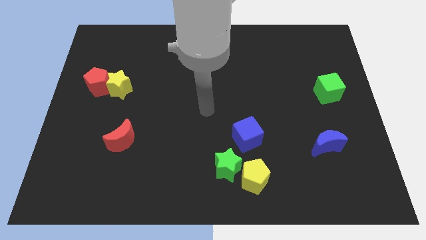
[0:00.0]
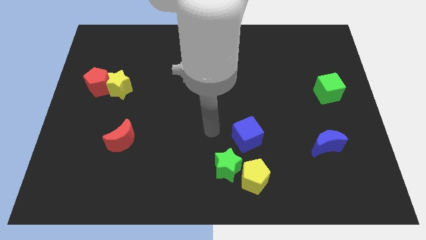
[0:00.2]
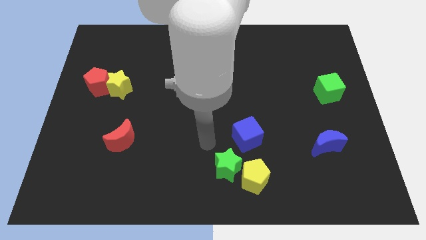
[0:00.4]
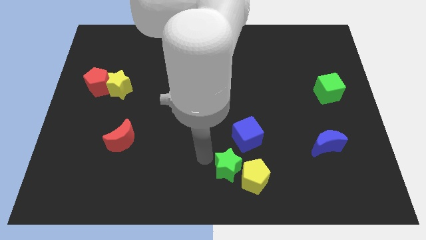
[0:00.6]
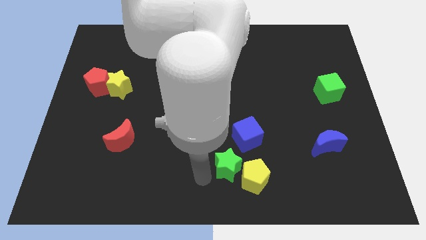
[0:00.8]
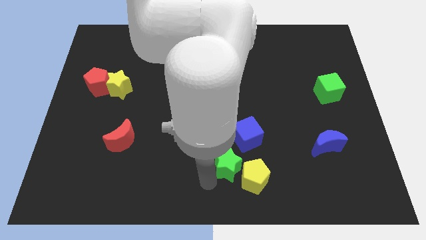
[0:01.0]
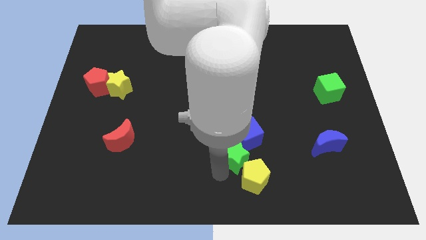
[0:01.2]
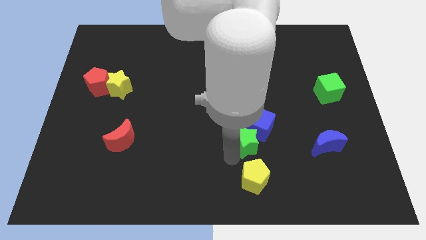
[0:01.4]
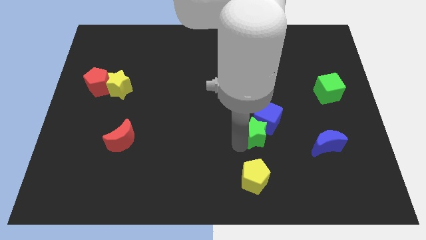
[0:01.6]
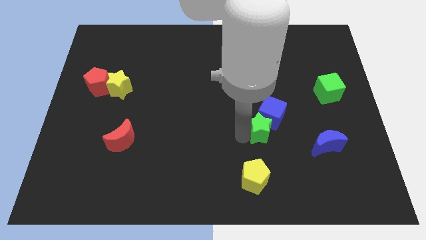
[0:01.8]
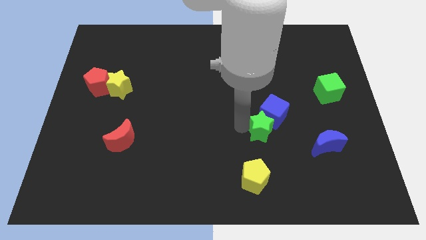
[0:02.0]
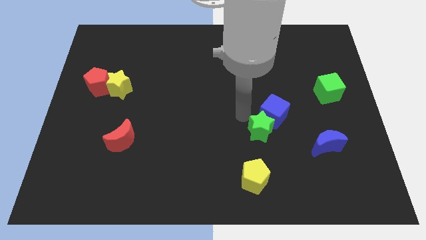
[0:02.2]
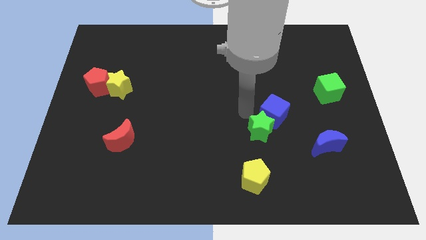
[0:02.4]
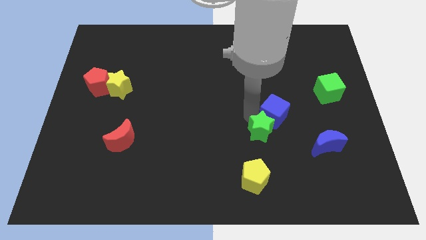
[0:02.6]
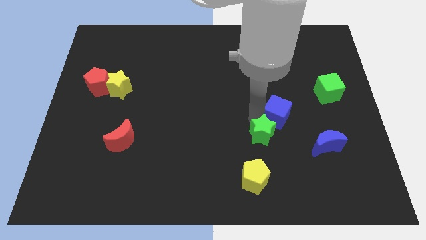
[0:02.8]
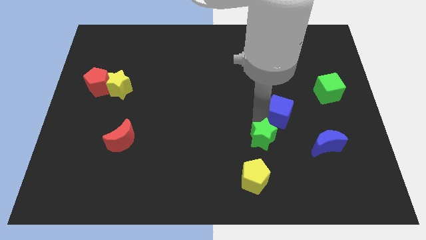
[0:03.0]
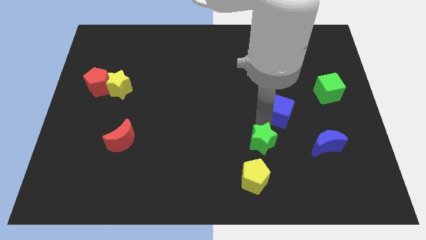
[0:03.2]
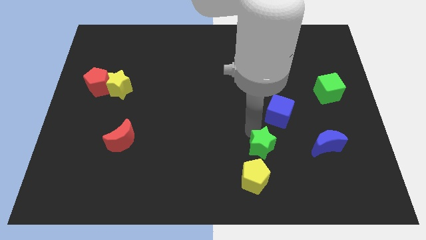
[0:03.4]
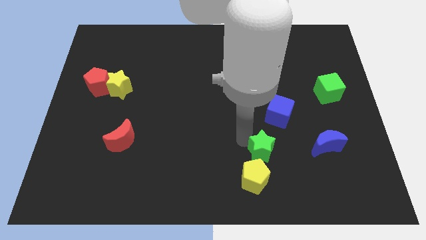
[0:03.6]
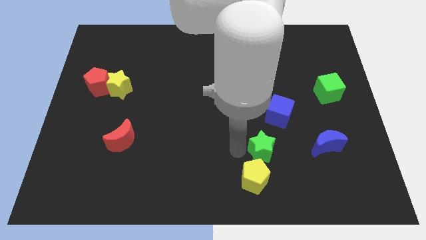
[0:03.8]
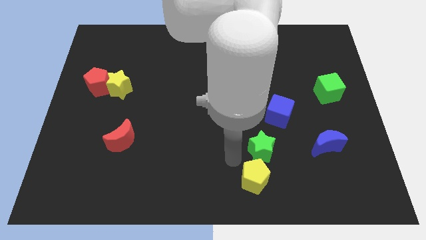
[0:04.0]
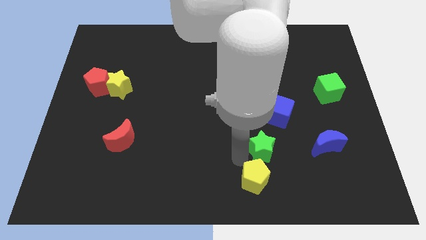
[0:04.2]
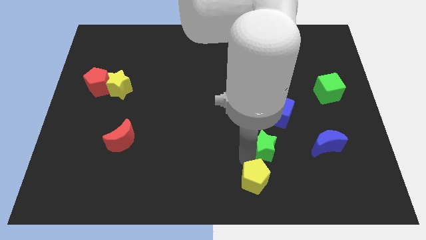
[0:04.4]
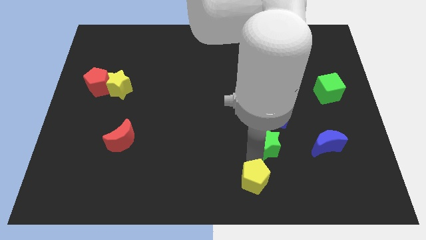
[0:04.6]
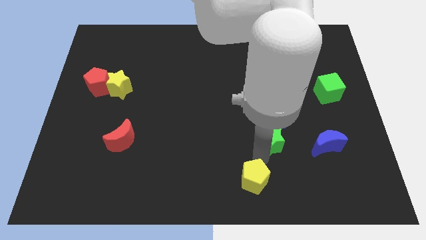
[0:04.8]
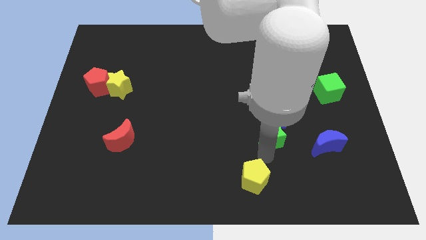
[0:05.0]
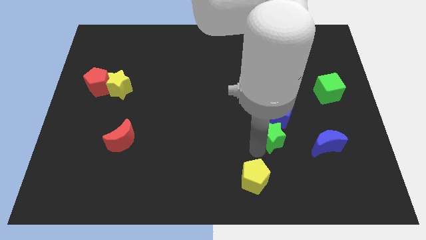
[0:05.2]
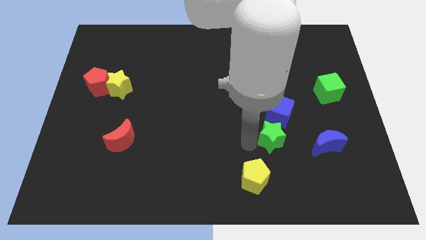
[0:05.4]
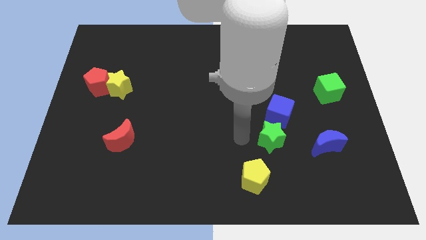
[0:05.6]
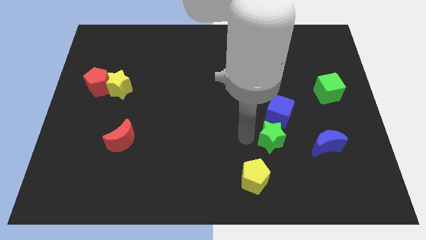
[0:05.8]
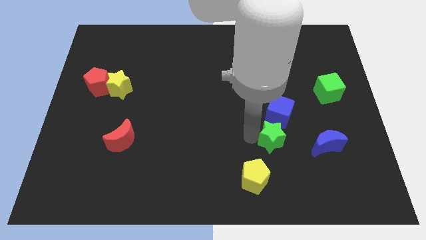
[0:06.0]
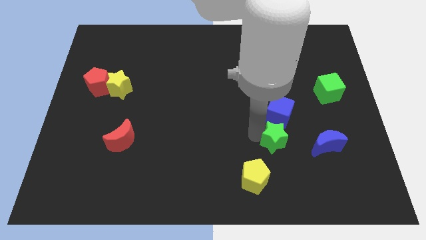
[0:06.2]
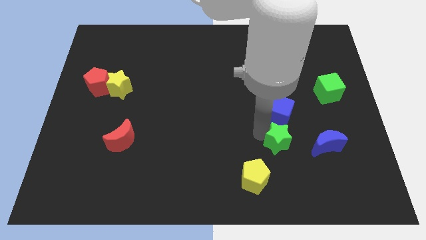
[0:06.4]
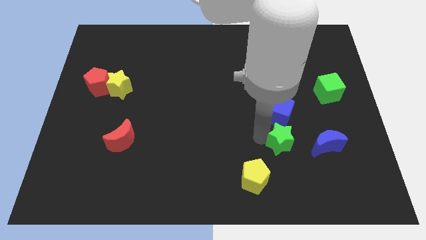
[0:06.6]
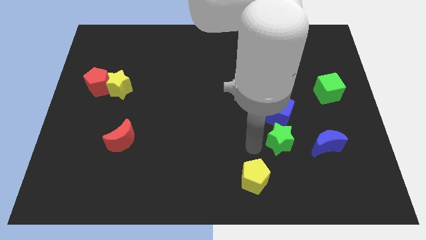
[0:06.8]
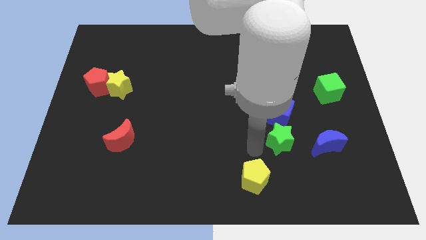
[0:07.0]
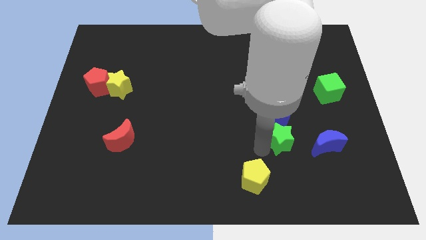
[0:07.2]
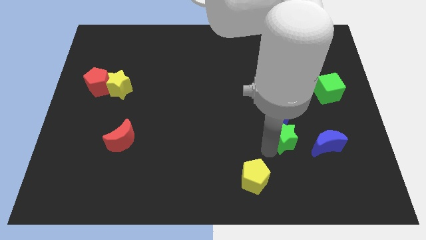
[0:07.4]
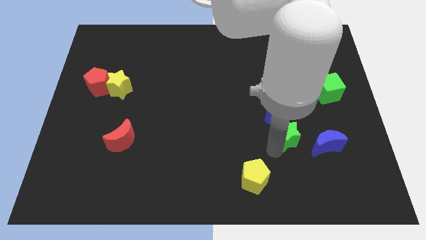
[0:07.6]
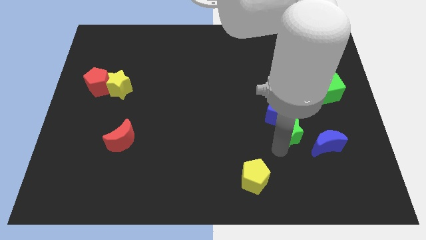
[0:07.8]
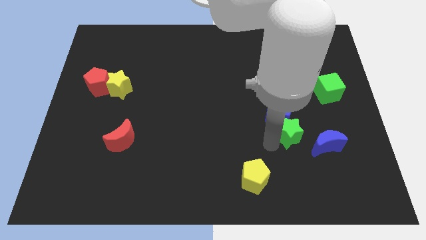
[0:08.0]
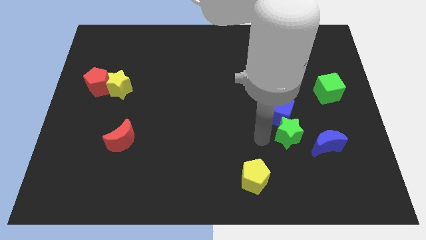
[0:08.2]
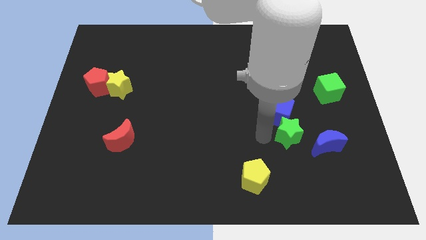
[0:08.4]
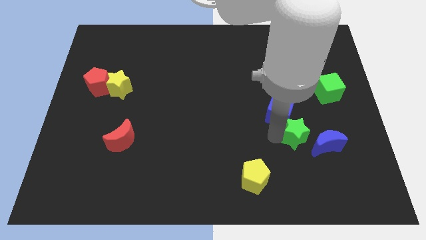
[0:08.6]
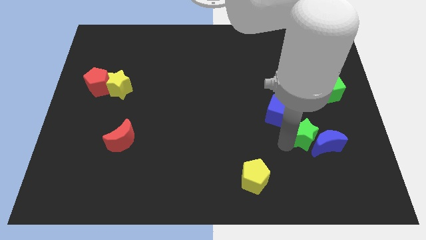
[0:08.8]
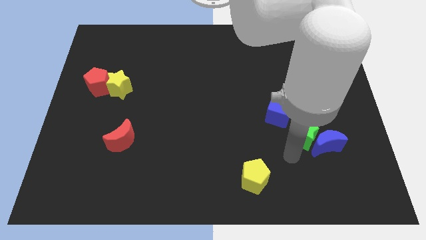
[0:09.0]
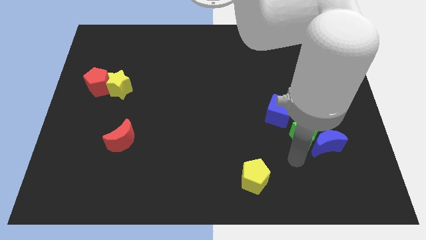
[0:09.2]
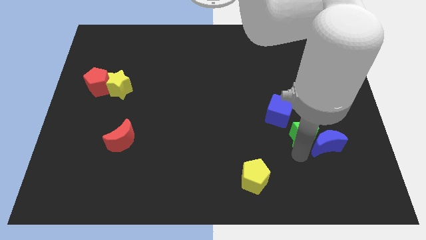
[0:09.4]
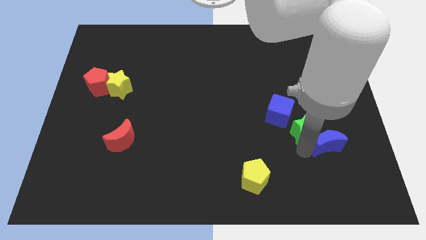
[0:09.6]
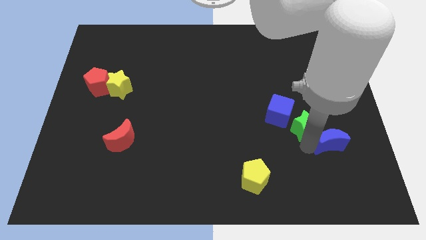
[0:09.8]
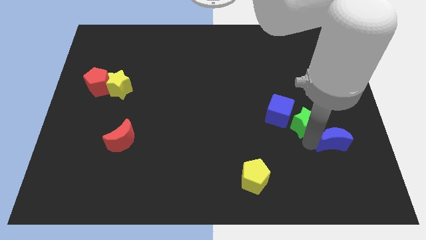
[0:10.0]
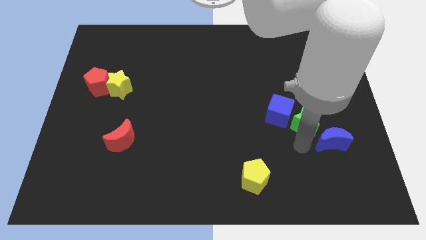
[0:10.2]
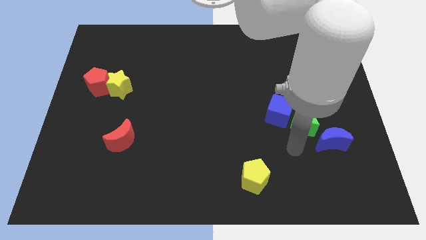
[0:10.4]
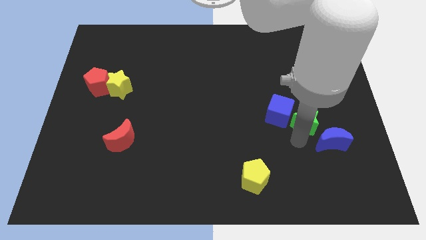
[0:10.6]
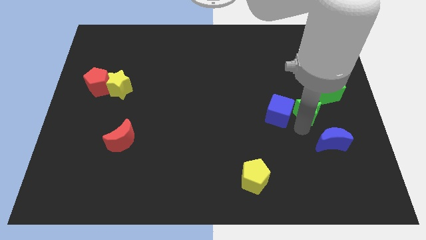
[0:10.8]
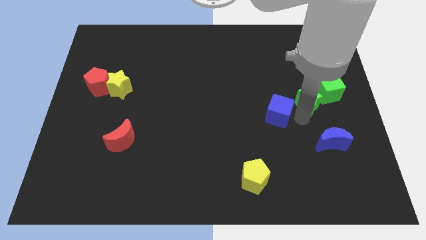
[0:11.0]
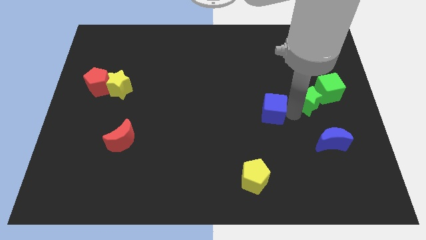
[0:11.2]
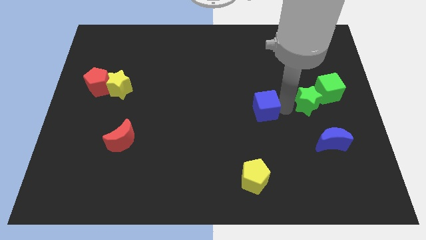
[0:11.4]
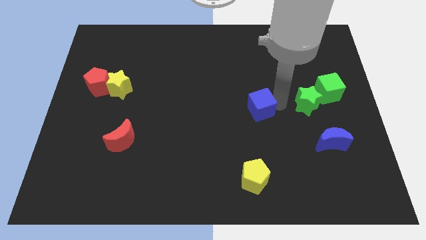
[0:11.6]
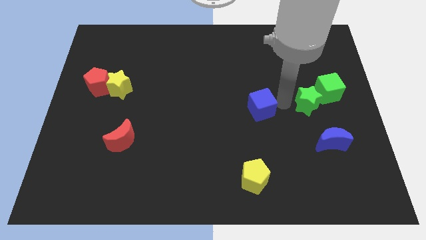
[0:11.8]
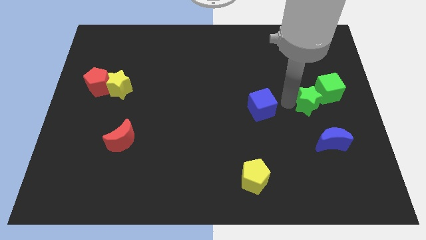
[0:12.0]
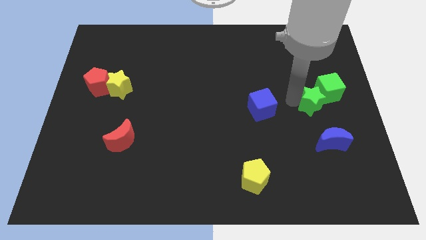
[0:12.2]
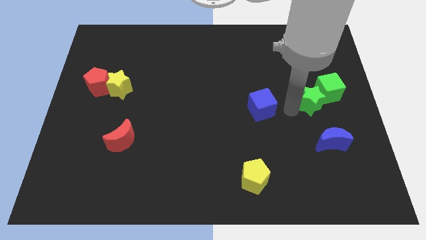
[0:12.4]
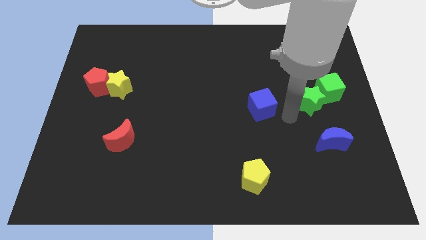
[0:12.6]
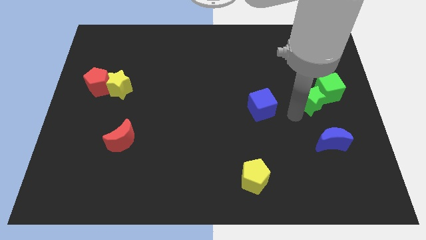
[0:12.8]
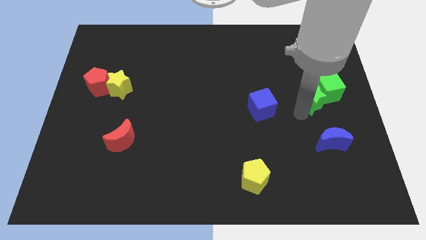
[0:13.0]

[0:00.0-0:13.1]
put the green star to the green cube

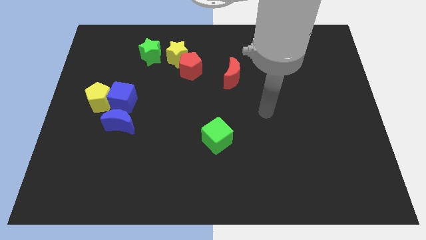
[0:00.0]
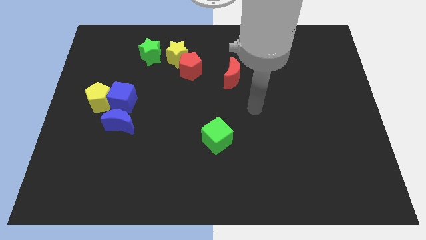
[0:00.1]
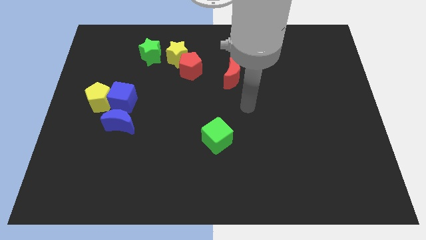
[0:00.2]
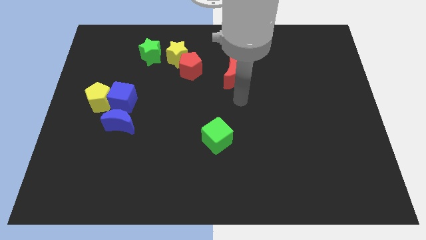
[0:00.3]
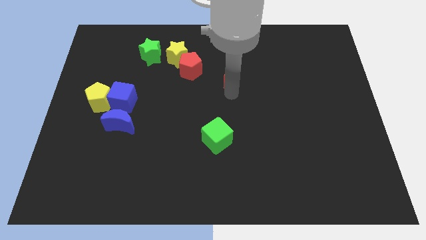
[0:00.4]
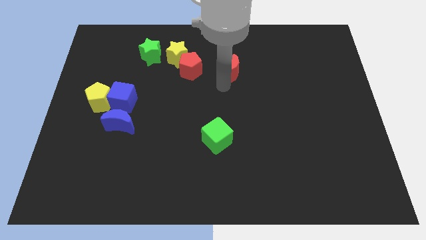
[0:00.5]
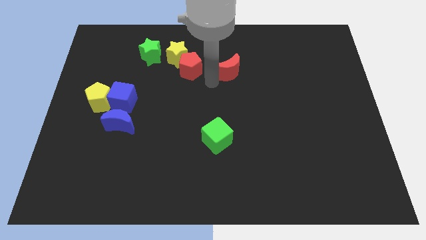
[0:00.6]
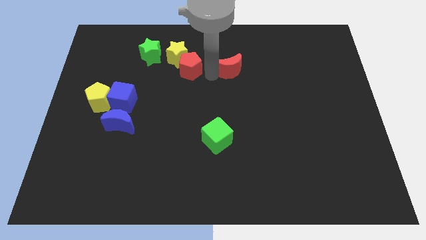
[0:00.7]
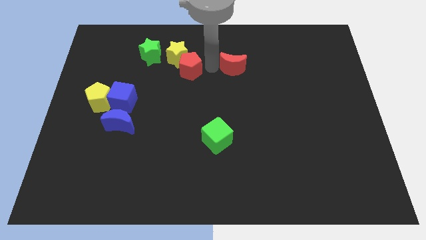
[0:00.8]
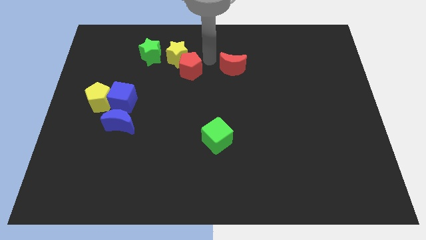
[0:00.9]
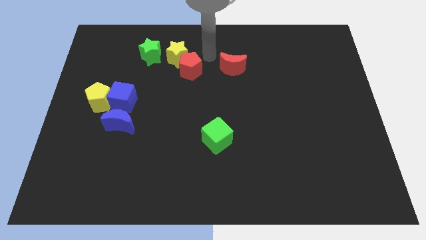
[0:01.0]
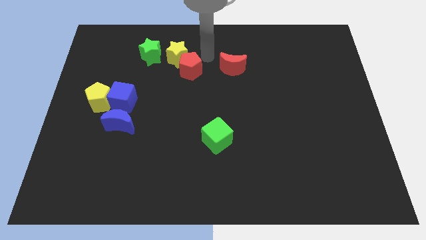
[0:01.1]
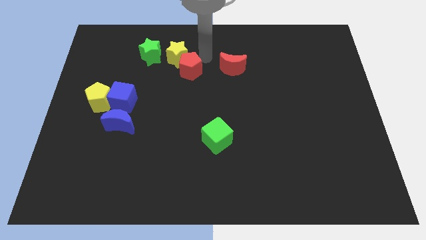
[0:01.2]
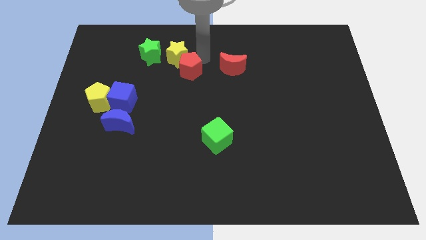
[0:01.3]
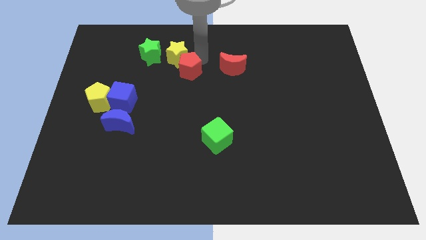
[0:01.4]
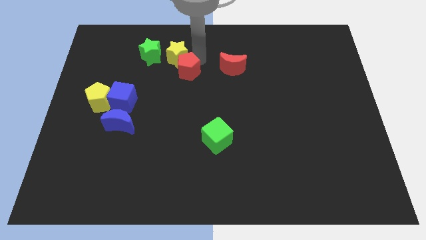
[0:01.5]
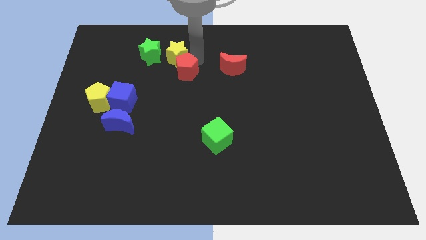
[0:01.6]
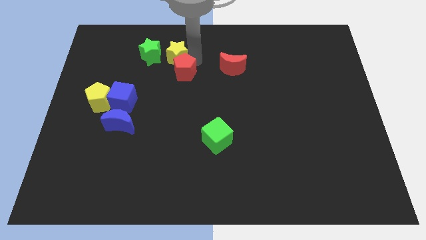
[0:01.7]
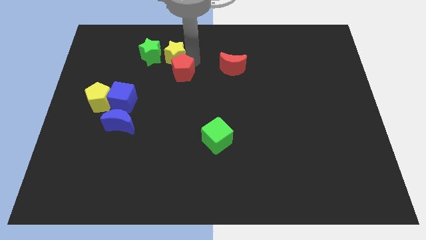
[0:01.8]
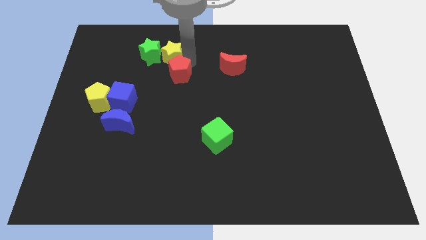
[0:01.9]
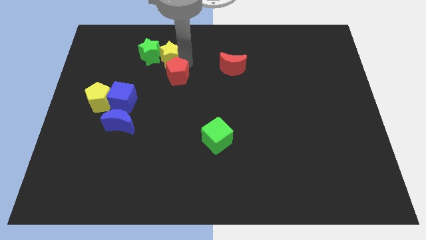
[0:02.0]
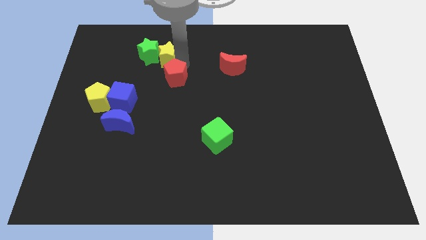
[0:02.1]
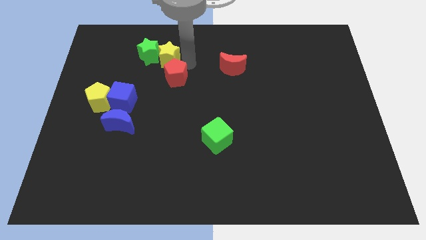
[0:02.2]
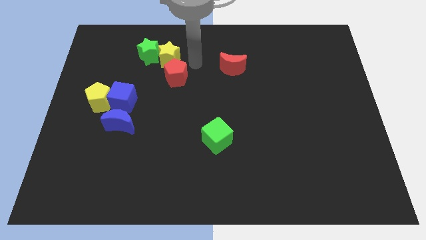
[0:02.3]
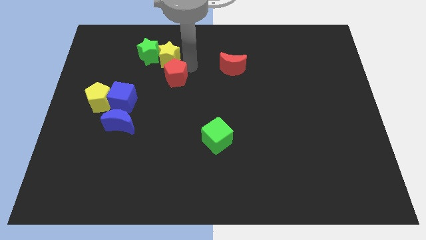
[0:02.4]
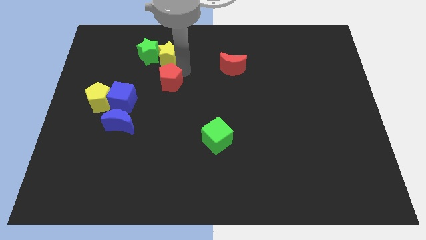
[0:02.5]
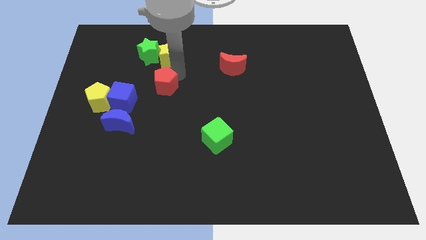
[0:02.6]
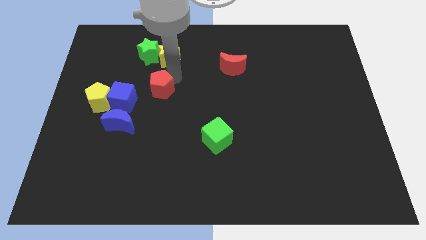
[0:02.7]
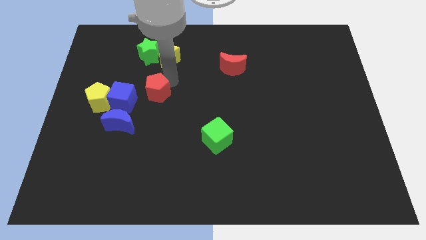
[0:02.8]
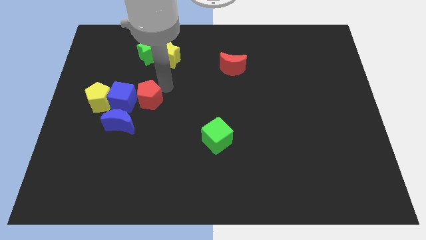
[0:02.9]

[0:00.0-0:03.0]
put the red pentagon to the blue cube
